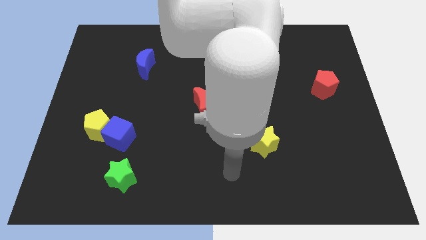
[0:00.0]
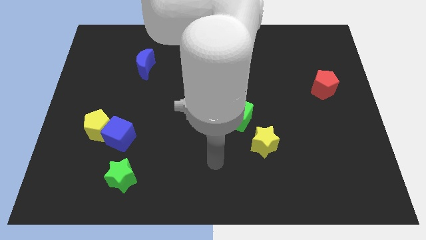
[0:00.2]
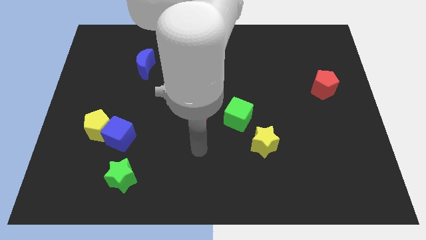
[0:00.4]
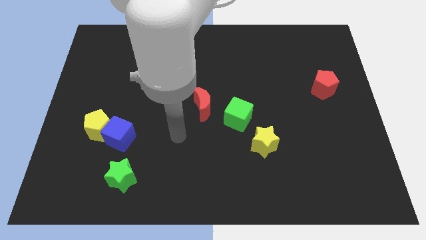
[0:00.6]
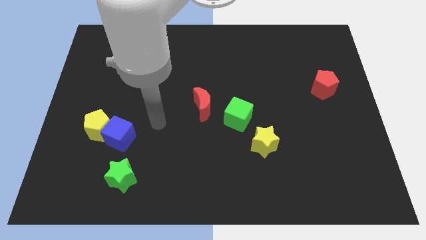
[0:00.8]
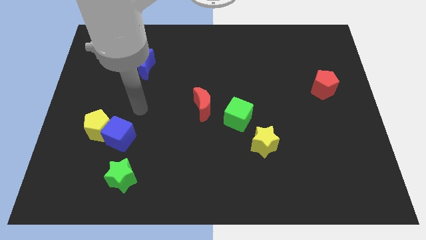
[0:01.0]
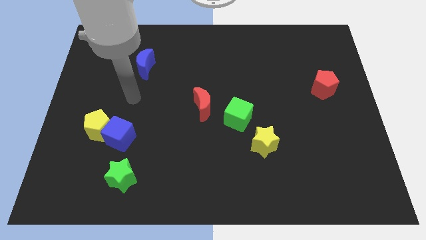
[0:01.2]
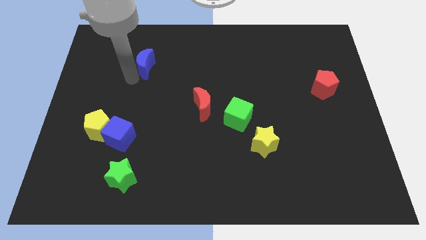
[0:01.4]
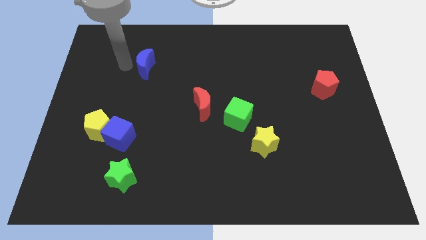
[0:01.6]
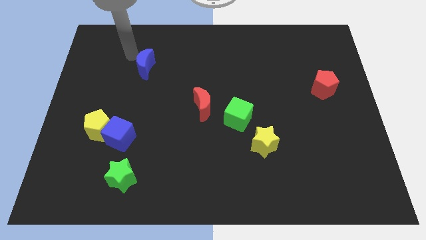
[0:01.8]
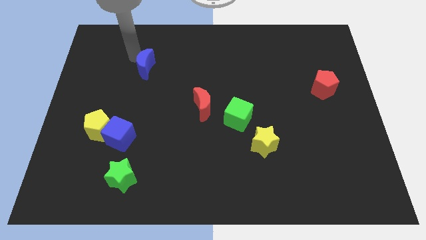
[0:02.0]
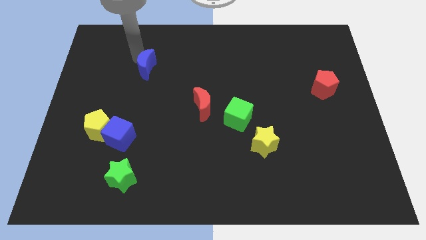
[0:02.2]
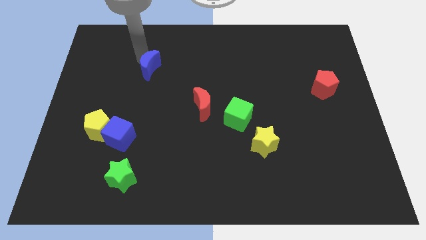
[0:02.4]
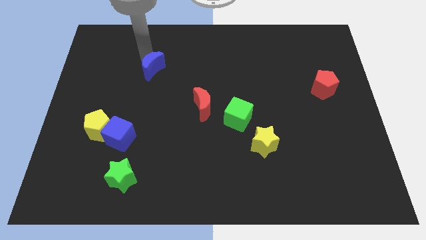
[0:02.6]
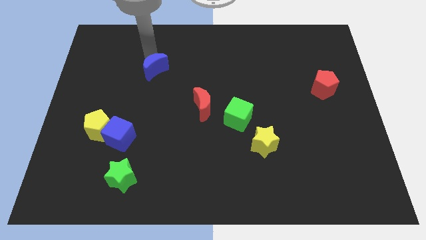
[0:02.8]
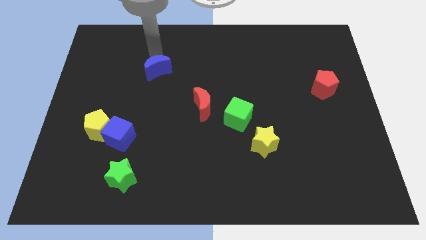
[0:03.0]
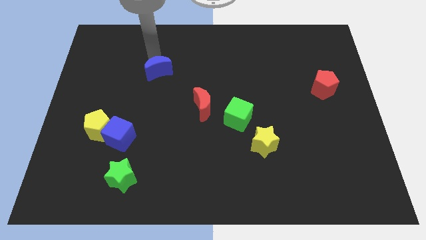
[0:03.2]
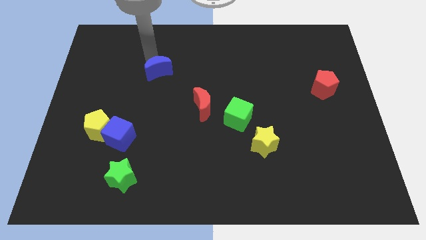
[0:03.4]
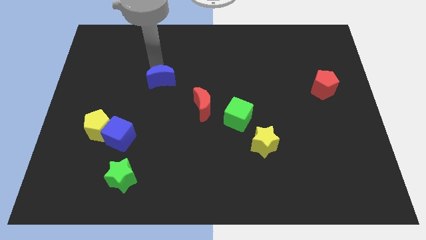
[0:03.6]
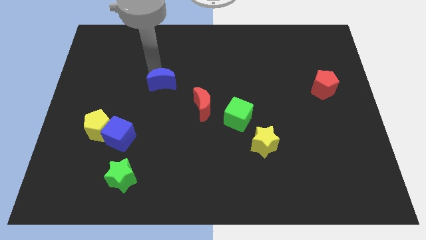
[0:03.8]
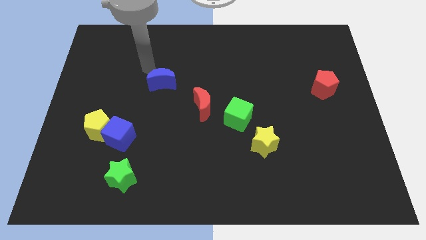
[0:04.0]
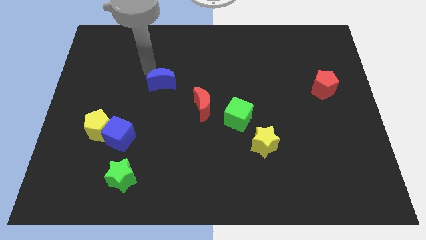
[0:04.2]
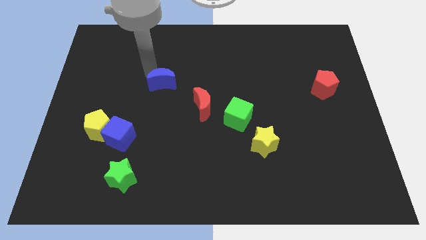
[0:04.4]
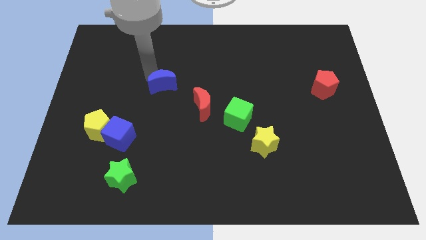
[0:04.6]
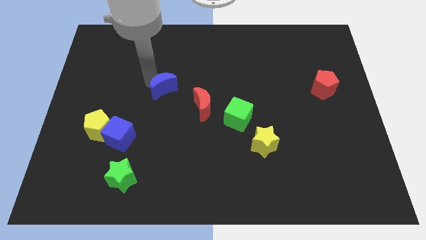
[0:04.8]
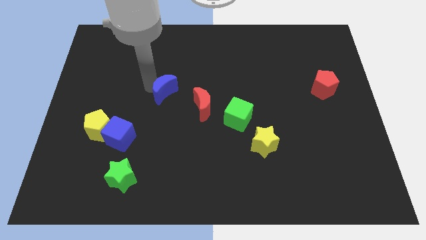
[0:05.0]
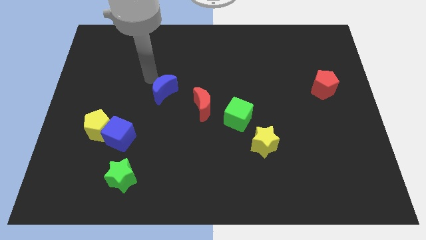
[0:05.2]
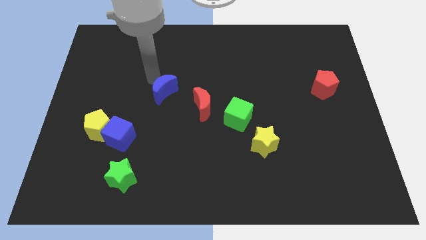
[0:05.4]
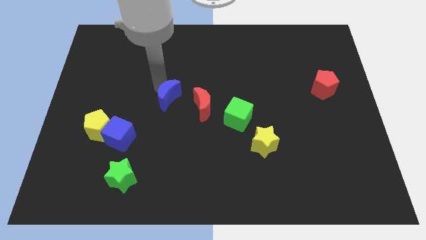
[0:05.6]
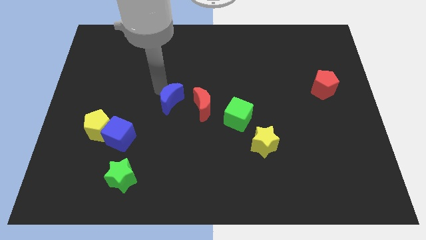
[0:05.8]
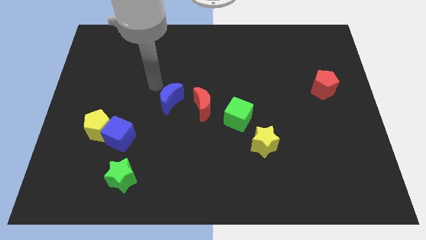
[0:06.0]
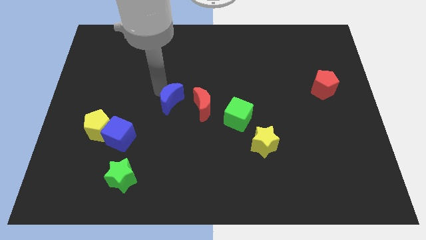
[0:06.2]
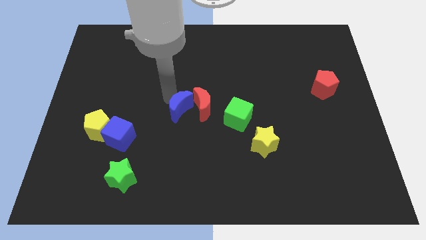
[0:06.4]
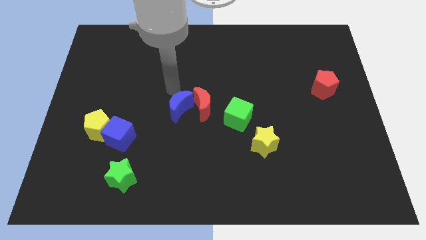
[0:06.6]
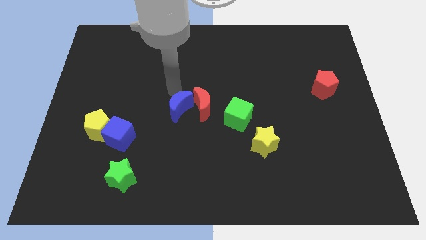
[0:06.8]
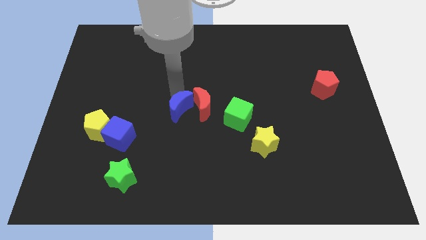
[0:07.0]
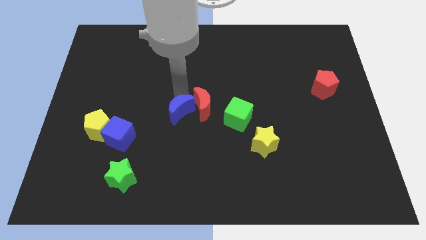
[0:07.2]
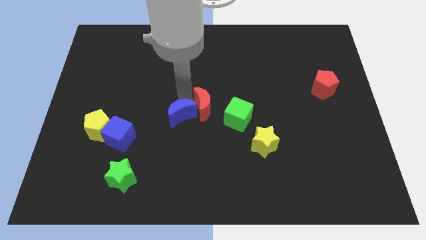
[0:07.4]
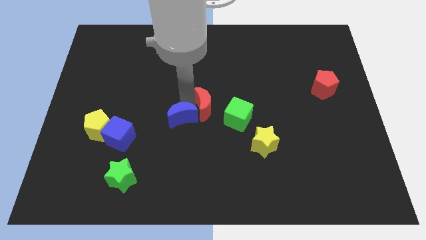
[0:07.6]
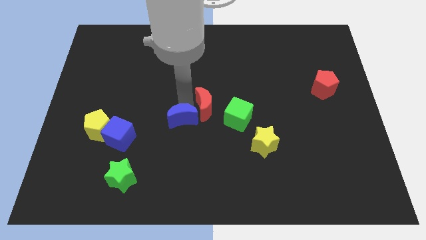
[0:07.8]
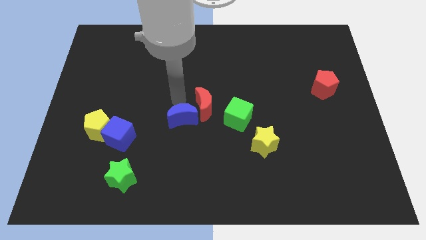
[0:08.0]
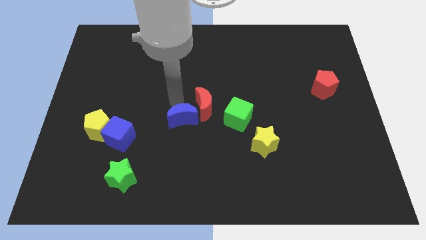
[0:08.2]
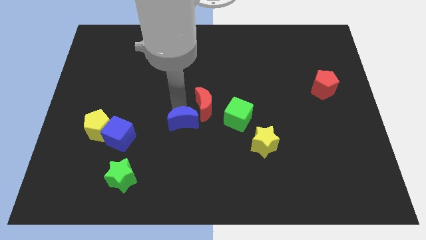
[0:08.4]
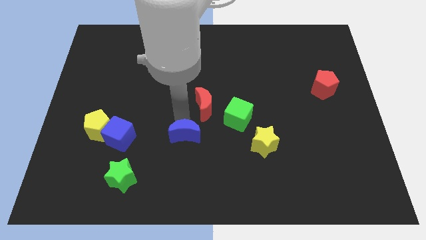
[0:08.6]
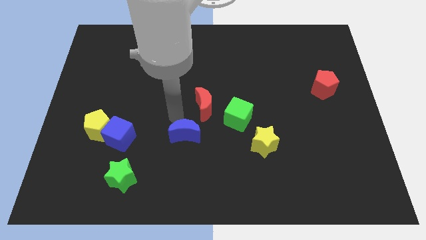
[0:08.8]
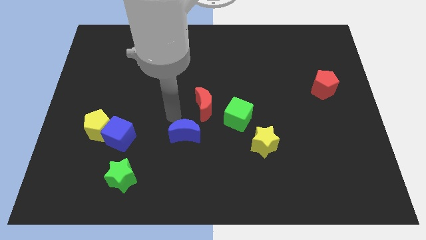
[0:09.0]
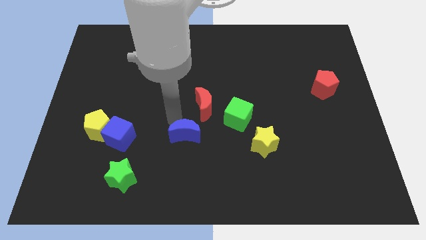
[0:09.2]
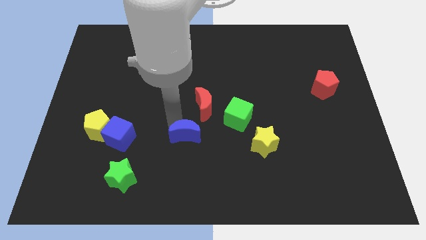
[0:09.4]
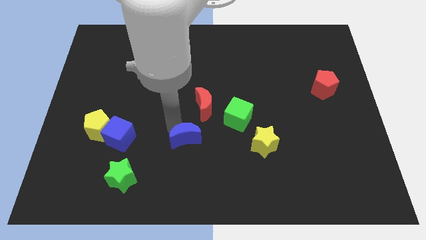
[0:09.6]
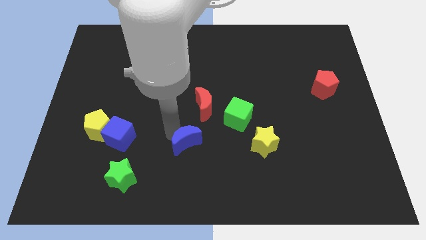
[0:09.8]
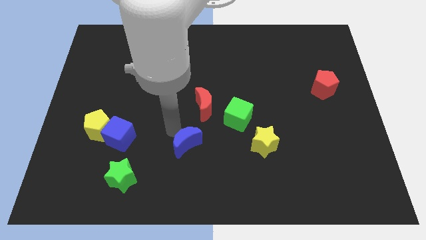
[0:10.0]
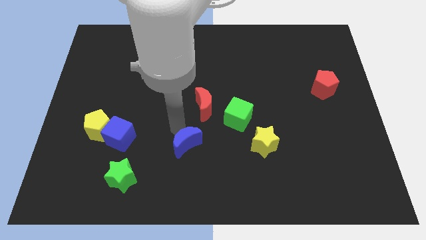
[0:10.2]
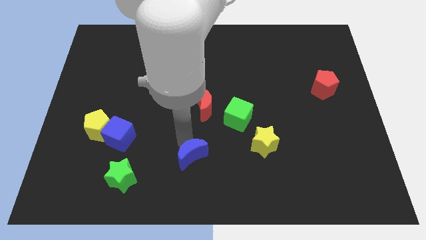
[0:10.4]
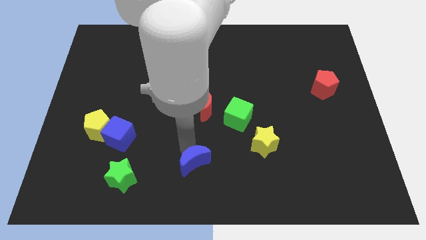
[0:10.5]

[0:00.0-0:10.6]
move the blue moon to the bottom side

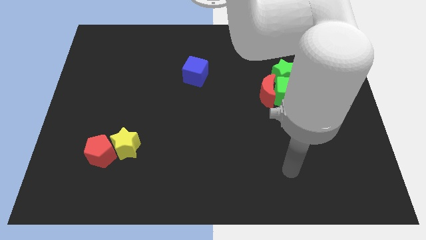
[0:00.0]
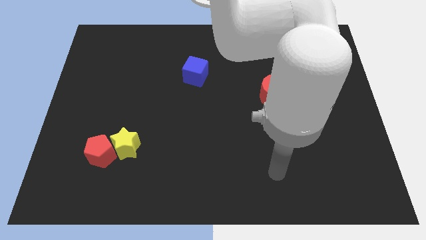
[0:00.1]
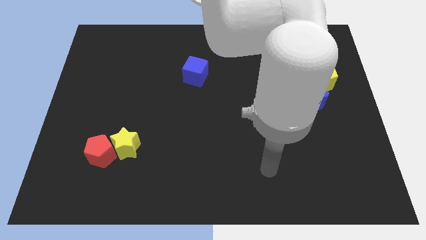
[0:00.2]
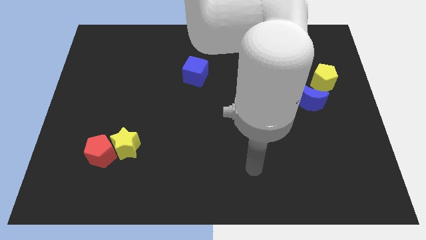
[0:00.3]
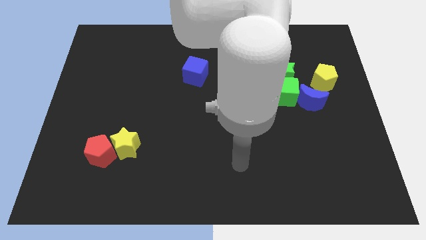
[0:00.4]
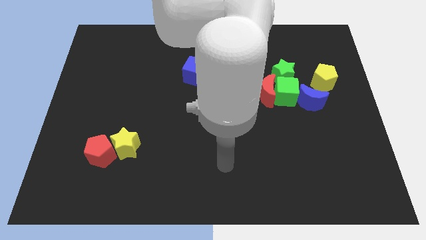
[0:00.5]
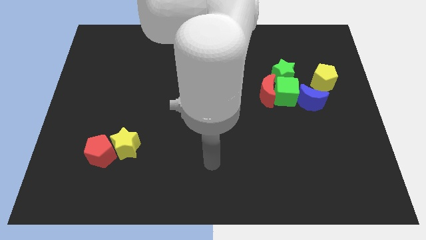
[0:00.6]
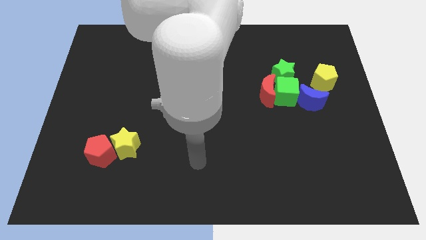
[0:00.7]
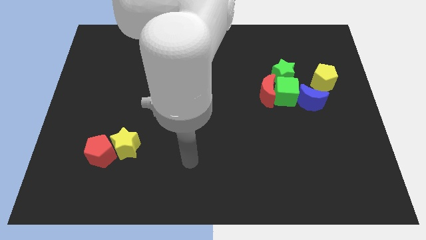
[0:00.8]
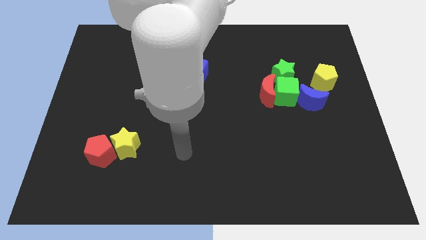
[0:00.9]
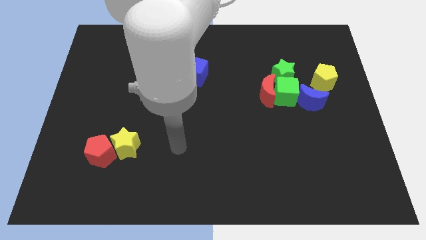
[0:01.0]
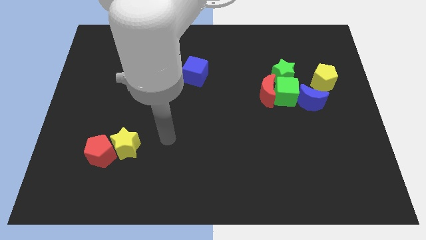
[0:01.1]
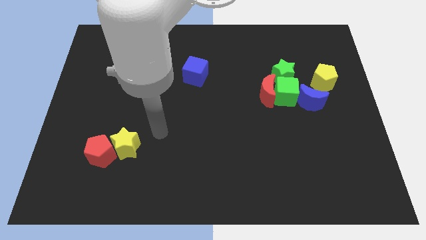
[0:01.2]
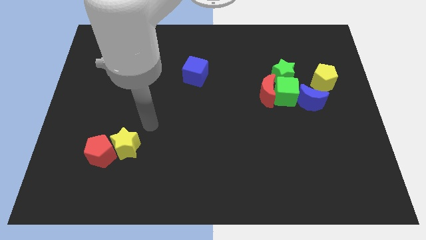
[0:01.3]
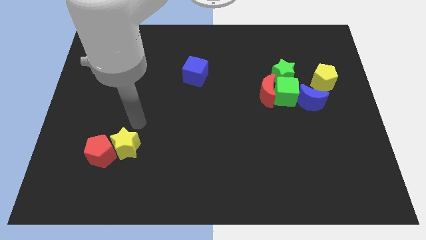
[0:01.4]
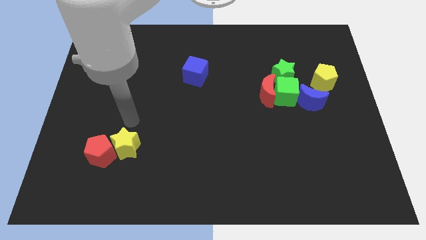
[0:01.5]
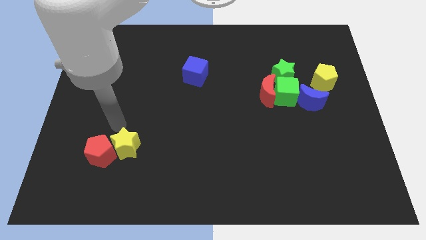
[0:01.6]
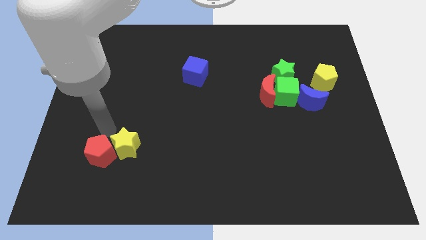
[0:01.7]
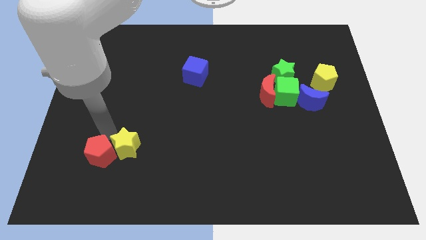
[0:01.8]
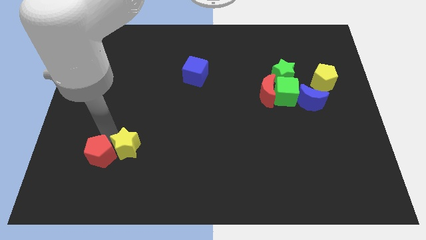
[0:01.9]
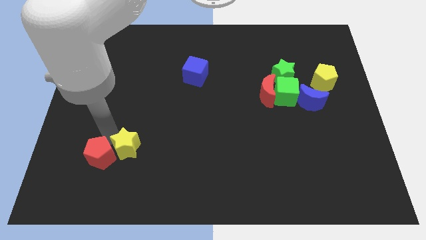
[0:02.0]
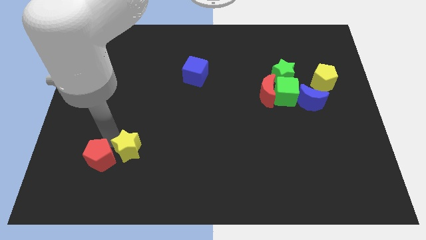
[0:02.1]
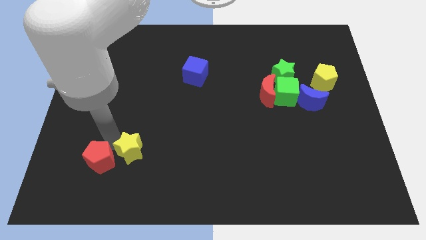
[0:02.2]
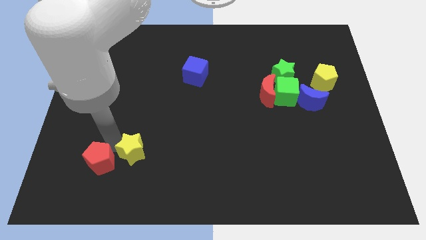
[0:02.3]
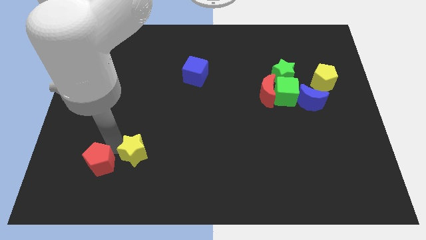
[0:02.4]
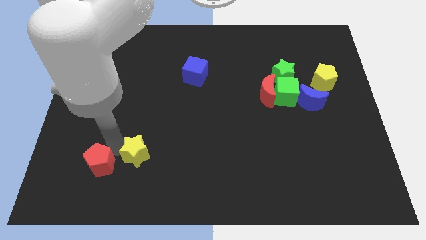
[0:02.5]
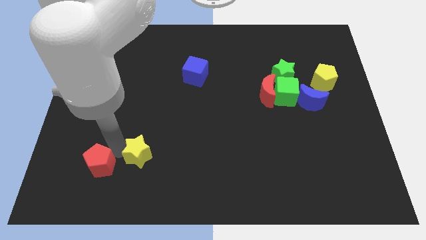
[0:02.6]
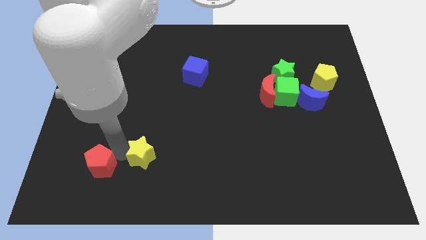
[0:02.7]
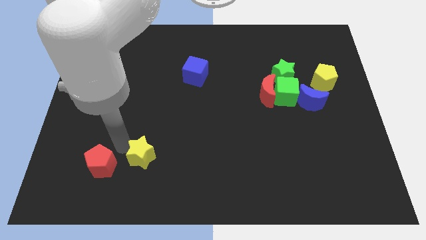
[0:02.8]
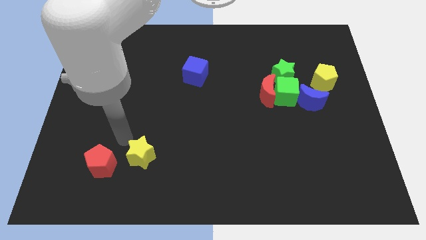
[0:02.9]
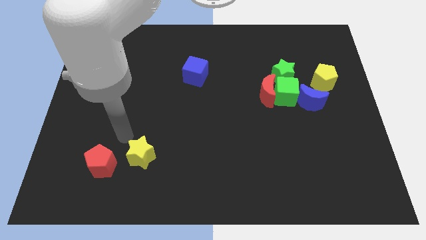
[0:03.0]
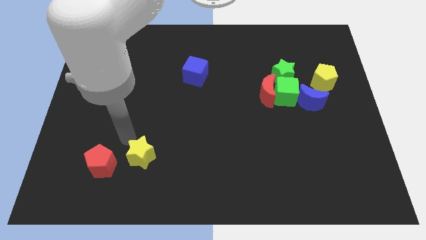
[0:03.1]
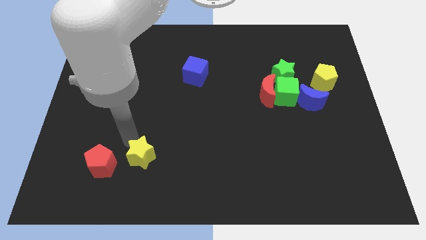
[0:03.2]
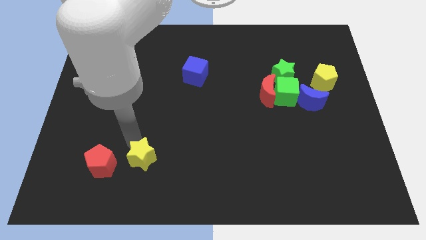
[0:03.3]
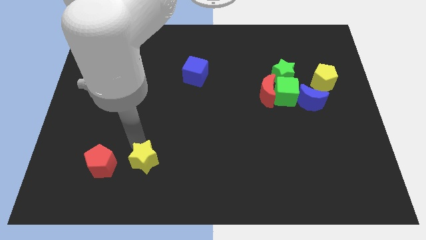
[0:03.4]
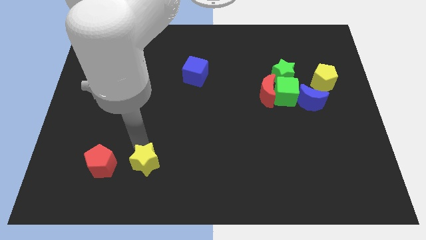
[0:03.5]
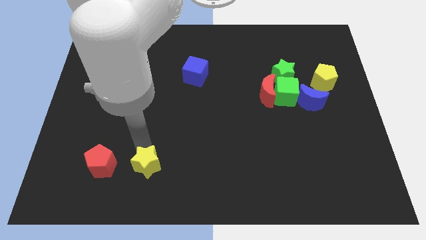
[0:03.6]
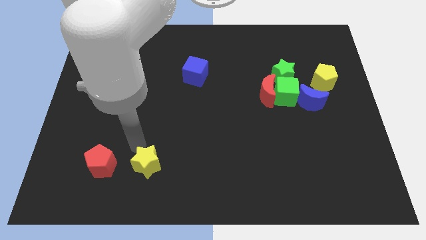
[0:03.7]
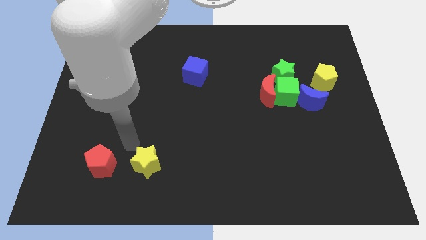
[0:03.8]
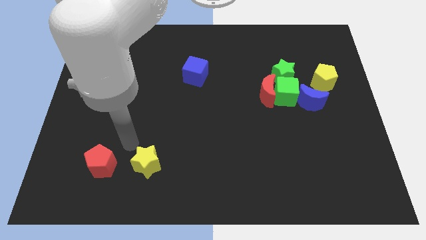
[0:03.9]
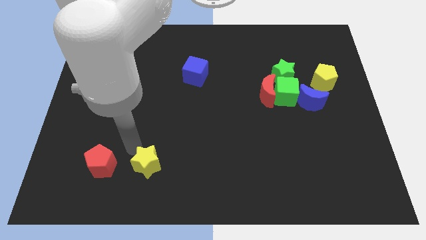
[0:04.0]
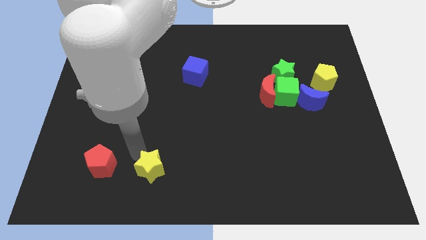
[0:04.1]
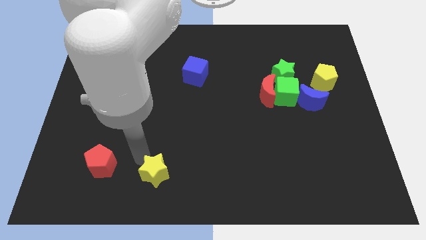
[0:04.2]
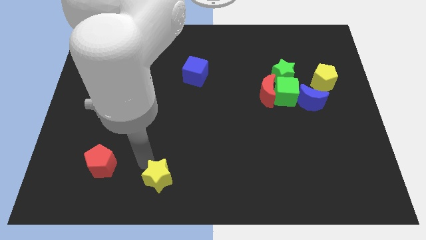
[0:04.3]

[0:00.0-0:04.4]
move the yellow star to the bottom
